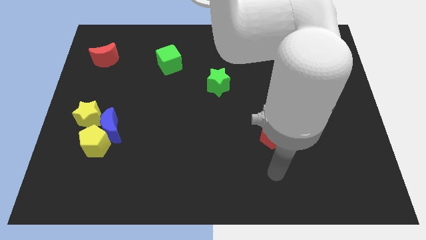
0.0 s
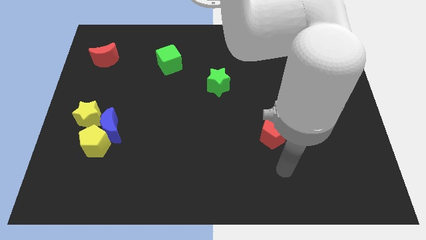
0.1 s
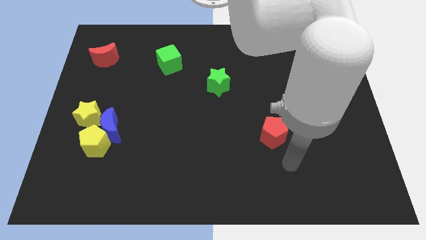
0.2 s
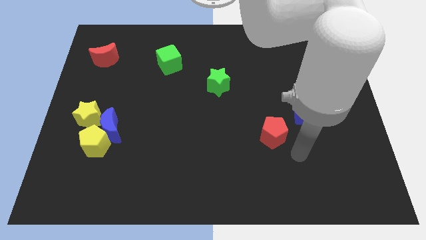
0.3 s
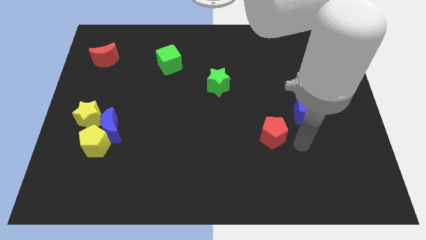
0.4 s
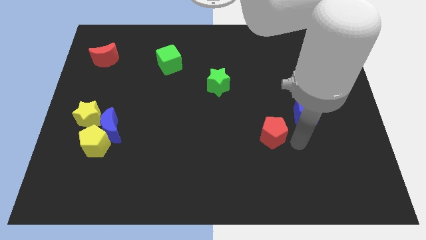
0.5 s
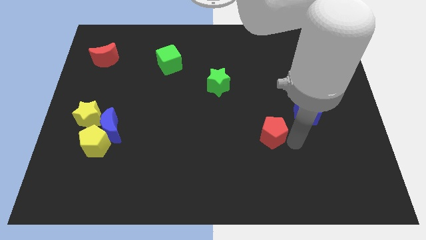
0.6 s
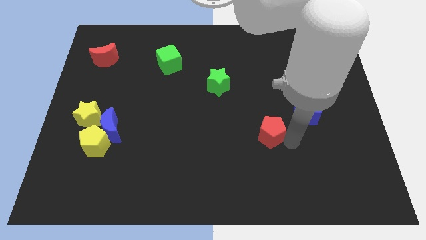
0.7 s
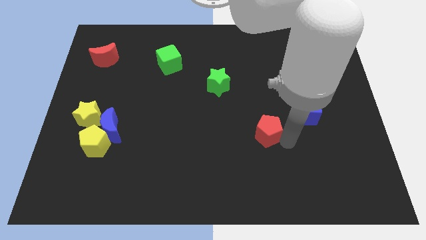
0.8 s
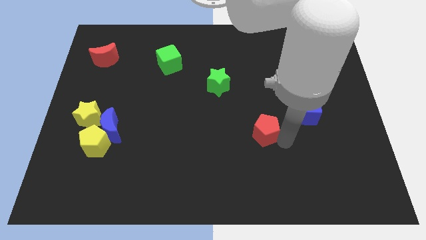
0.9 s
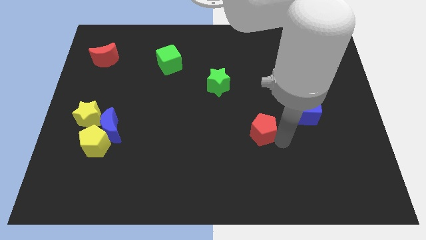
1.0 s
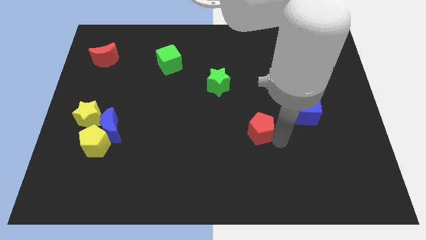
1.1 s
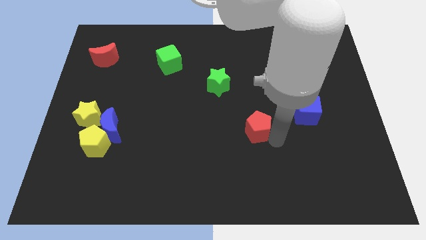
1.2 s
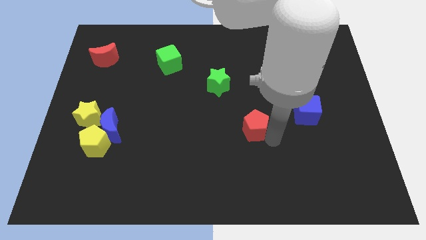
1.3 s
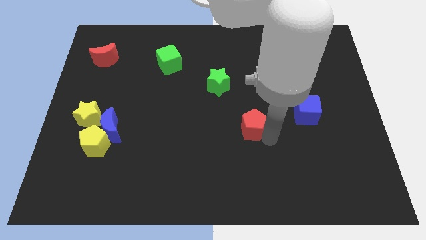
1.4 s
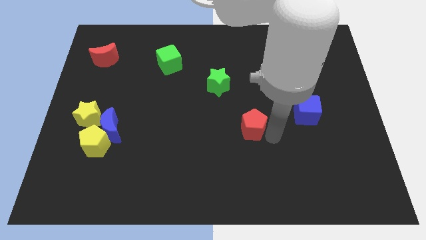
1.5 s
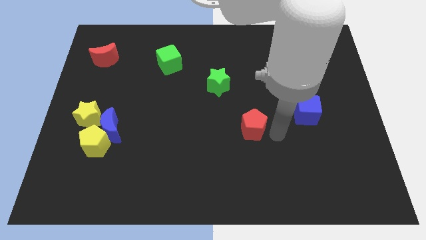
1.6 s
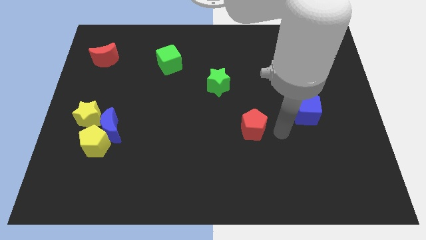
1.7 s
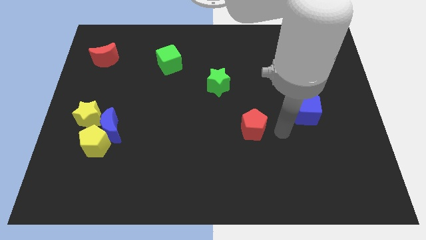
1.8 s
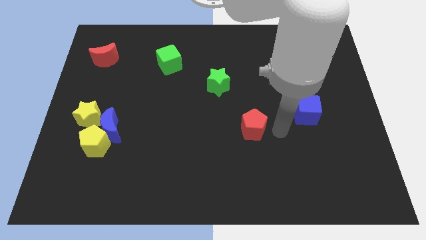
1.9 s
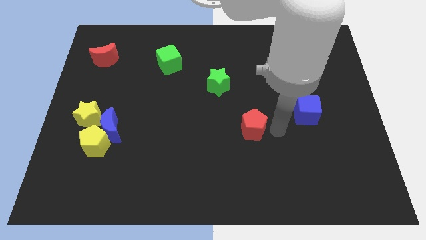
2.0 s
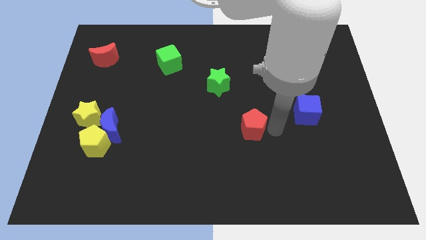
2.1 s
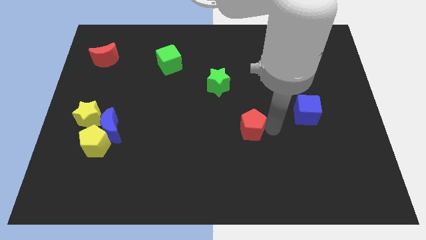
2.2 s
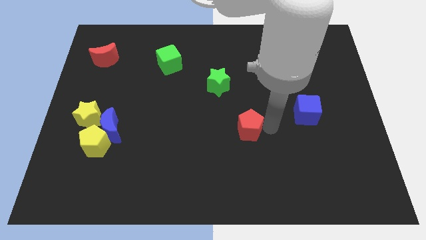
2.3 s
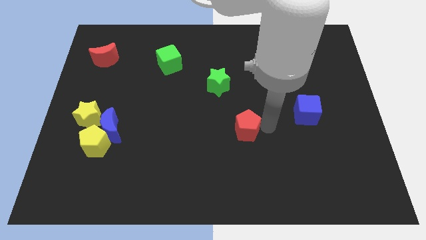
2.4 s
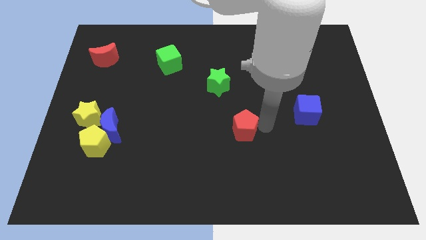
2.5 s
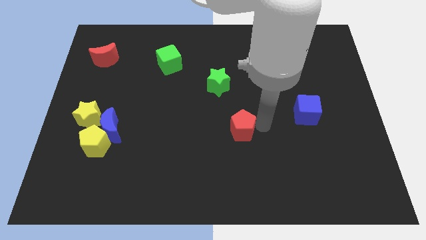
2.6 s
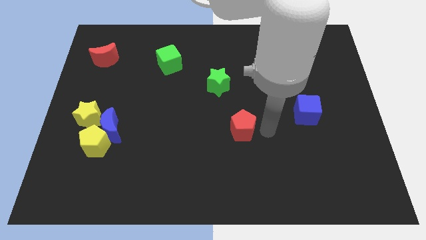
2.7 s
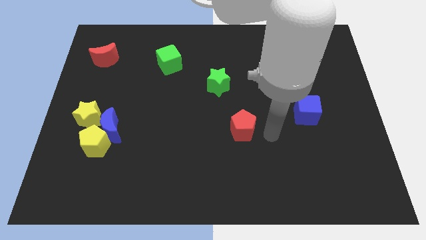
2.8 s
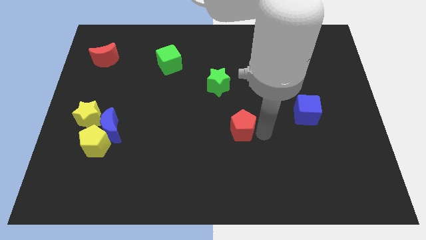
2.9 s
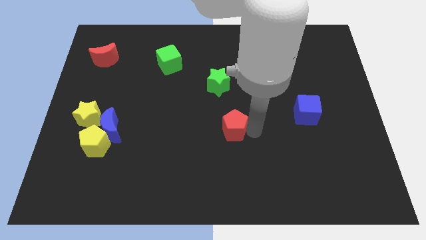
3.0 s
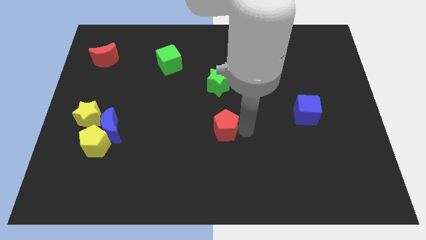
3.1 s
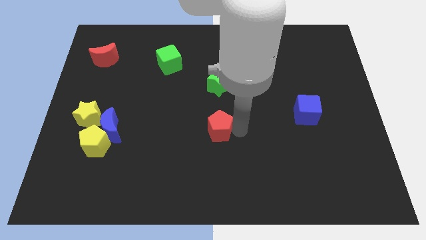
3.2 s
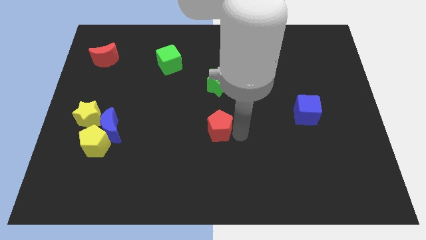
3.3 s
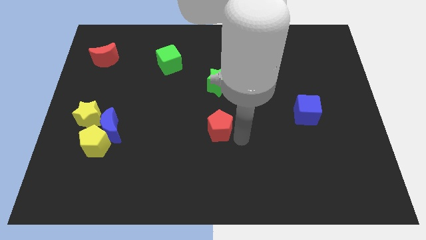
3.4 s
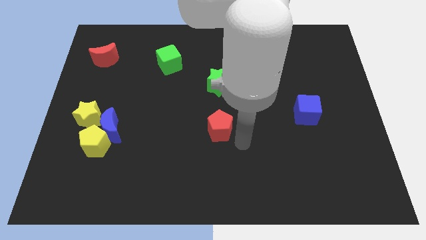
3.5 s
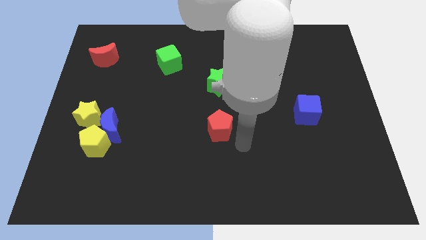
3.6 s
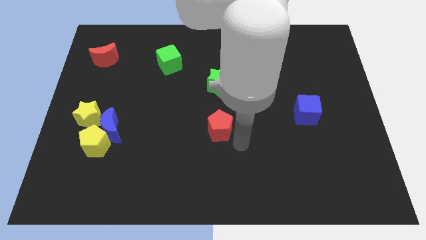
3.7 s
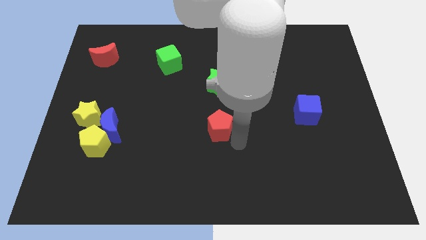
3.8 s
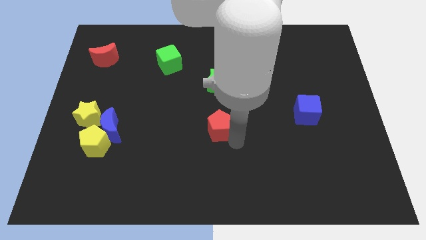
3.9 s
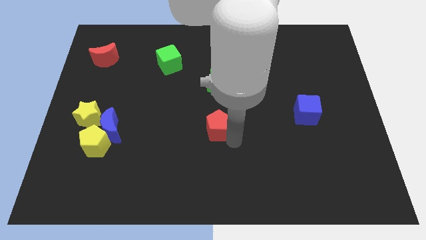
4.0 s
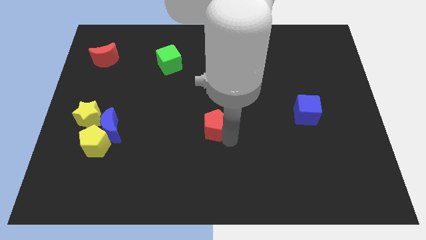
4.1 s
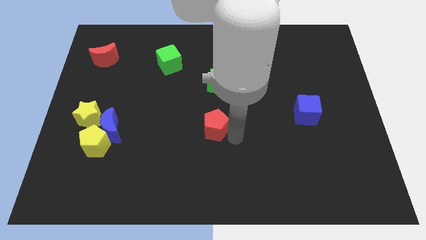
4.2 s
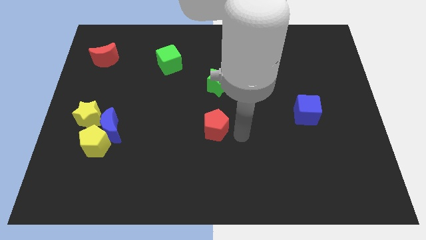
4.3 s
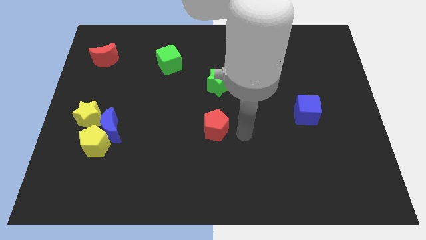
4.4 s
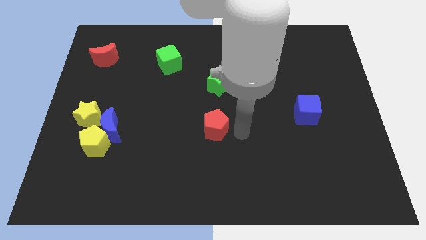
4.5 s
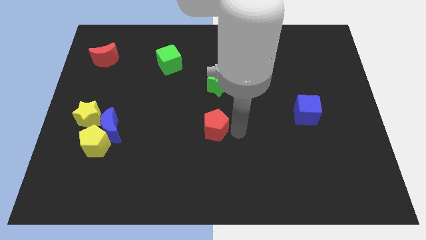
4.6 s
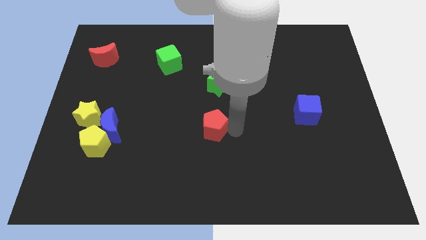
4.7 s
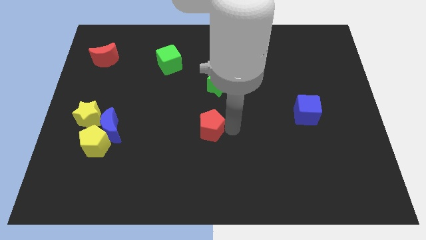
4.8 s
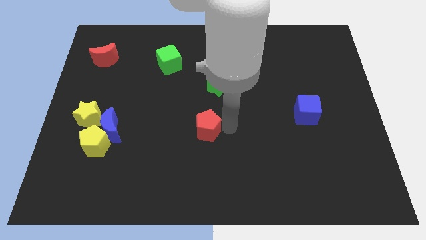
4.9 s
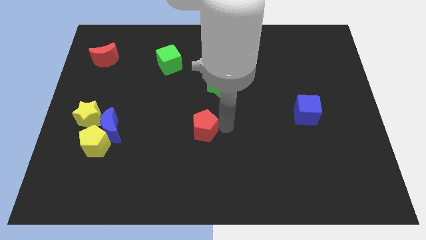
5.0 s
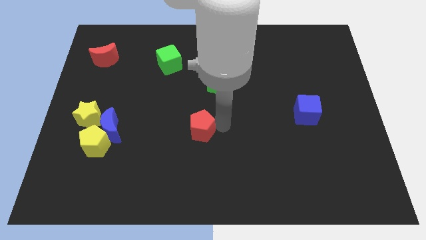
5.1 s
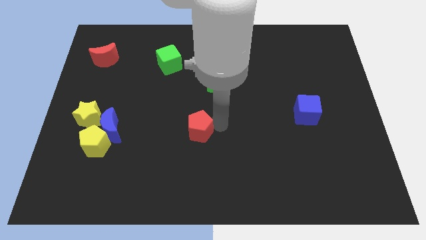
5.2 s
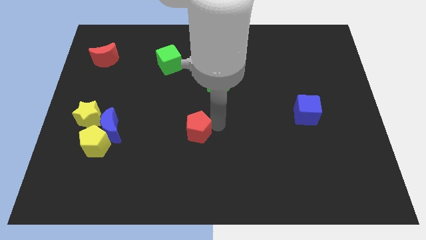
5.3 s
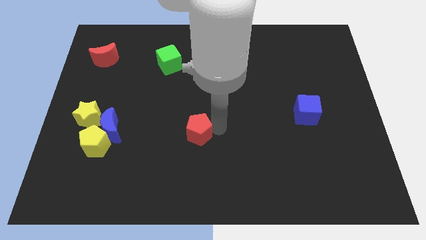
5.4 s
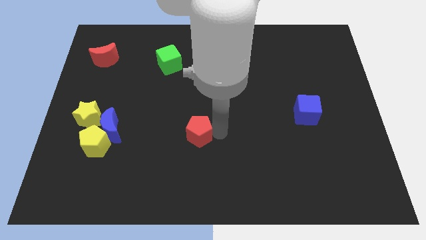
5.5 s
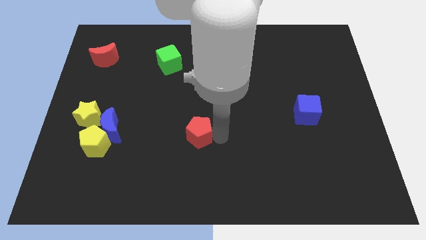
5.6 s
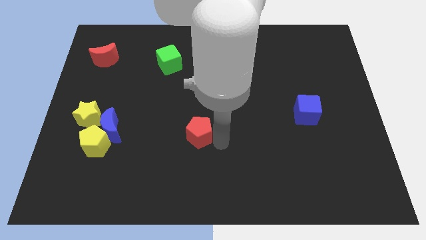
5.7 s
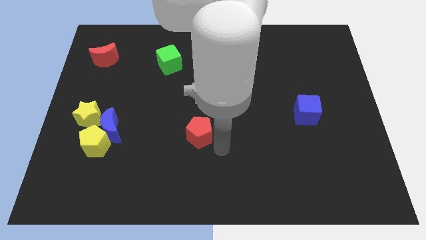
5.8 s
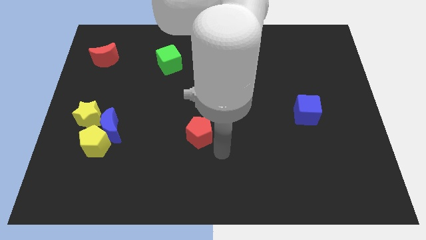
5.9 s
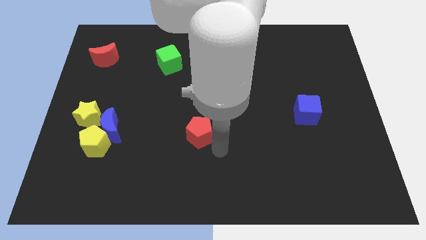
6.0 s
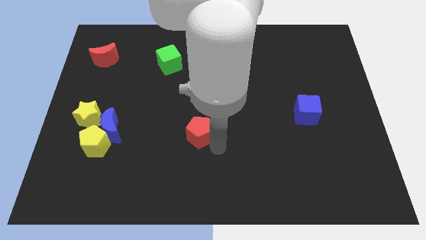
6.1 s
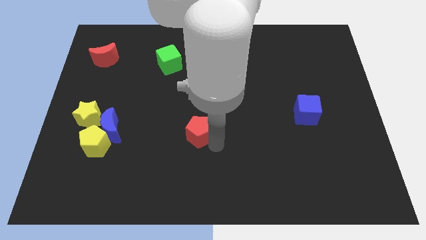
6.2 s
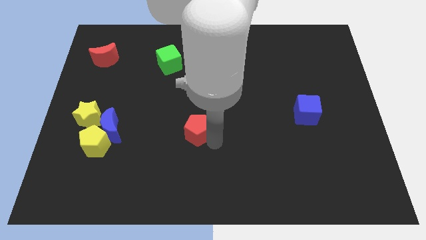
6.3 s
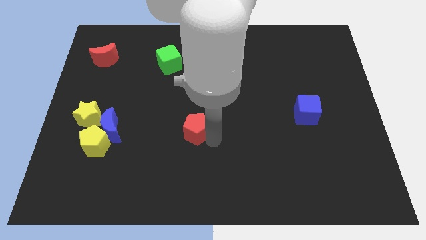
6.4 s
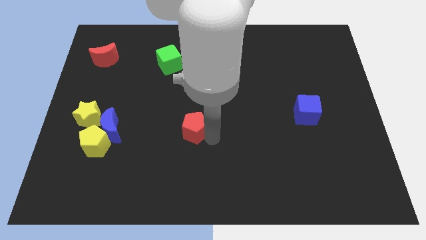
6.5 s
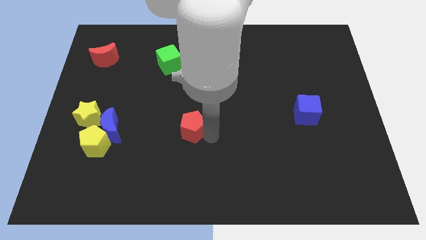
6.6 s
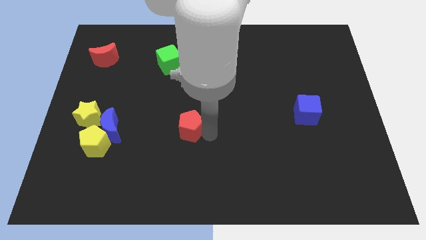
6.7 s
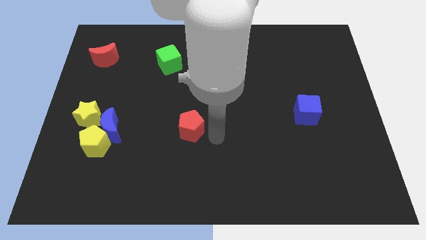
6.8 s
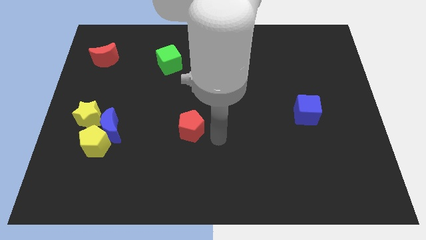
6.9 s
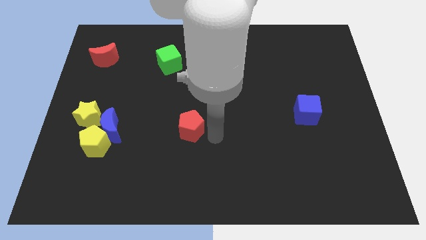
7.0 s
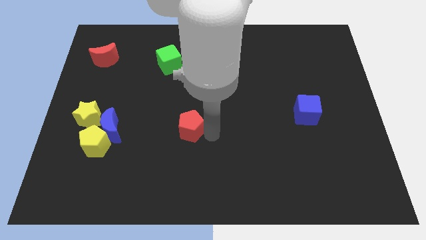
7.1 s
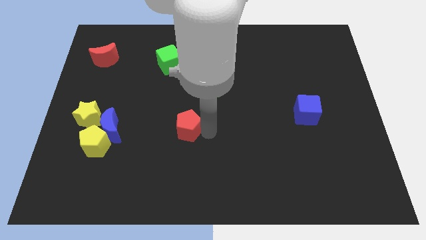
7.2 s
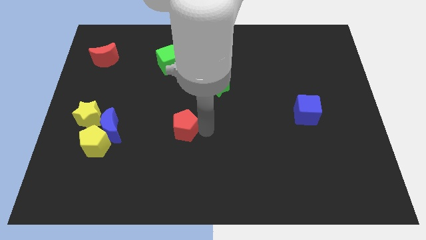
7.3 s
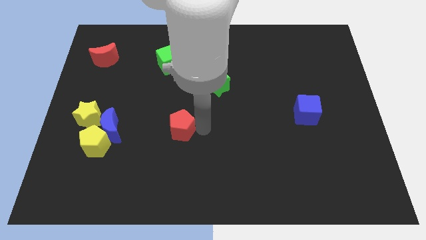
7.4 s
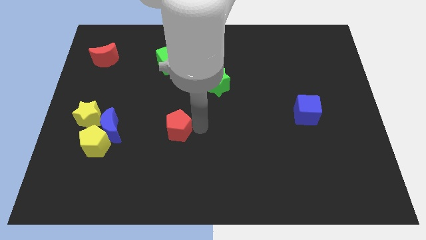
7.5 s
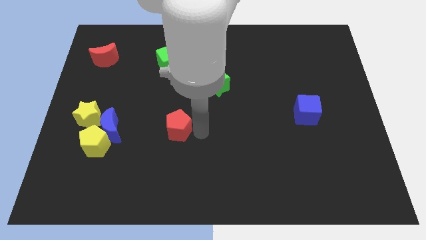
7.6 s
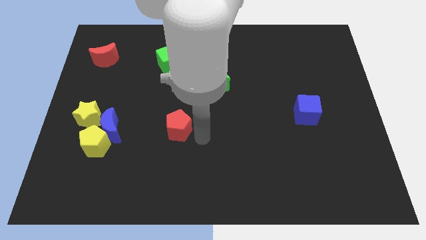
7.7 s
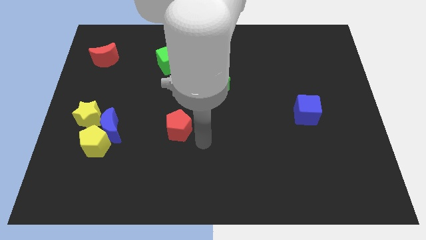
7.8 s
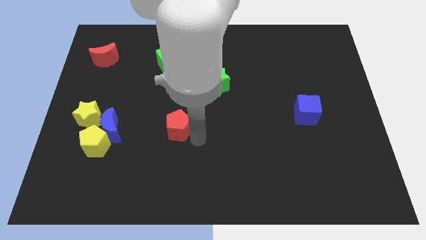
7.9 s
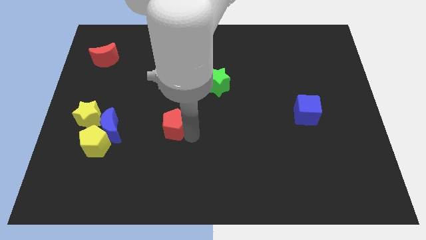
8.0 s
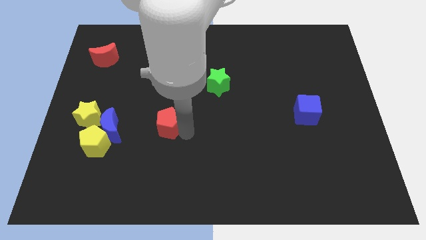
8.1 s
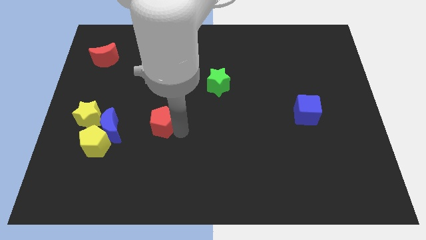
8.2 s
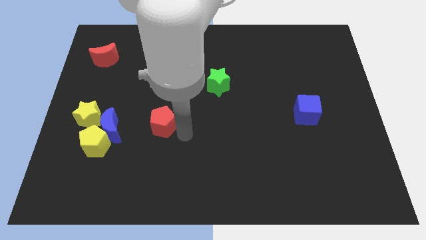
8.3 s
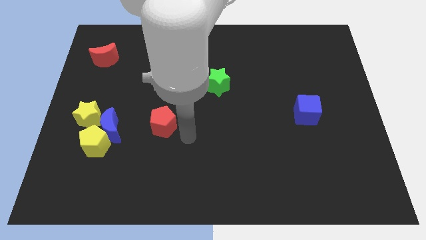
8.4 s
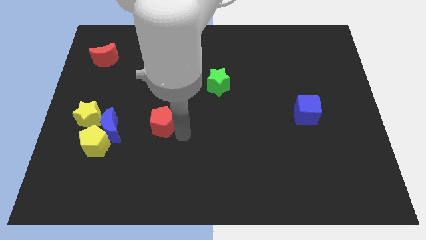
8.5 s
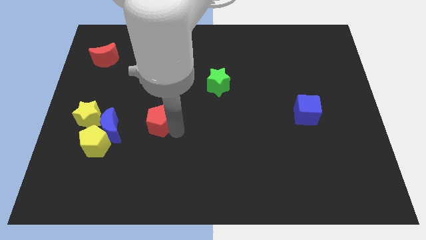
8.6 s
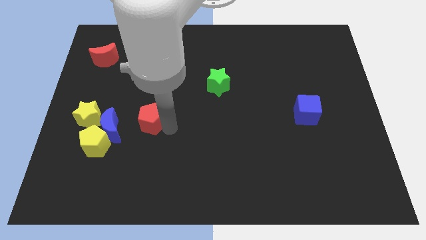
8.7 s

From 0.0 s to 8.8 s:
put the red pentagon to the top right side of the blue moon
